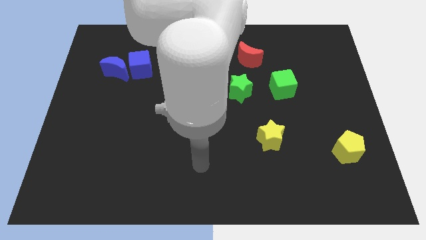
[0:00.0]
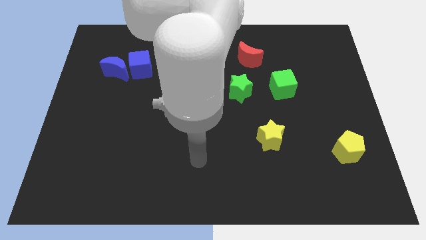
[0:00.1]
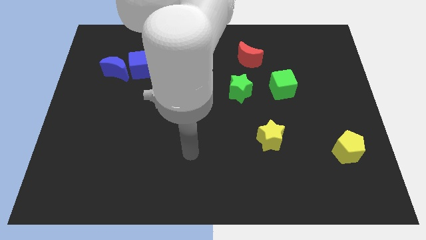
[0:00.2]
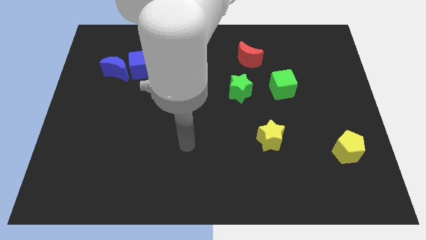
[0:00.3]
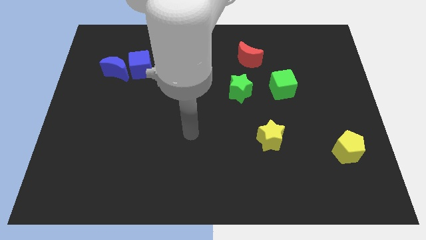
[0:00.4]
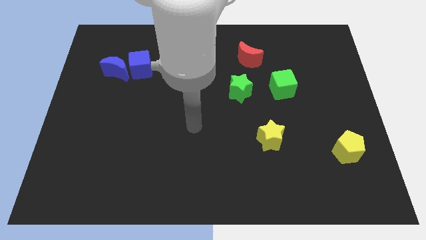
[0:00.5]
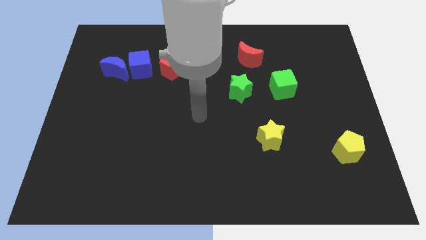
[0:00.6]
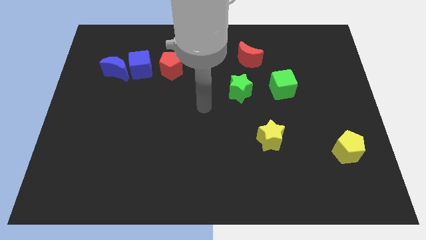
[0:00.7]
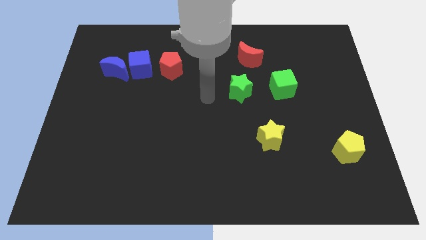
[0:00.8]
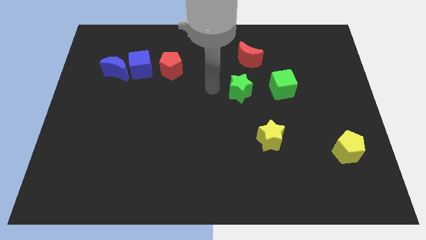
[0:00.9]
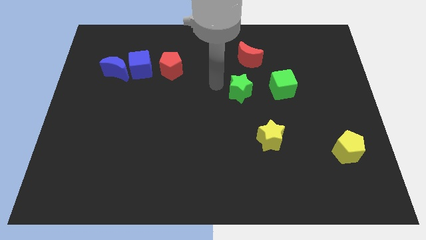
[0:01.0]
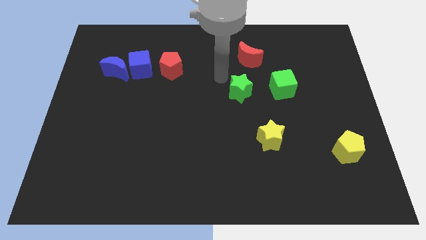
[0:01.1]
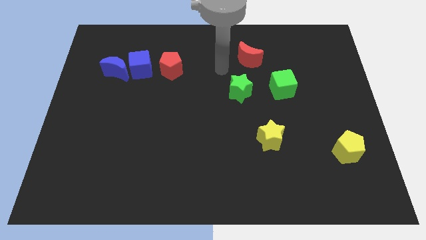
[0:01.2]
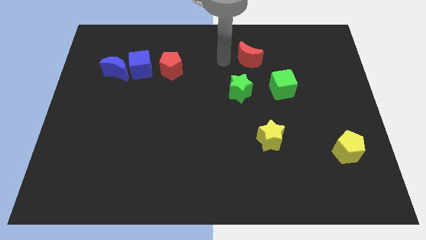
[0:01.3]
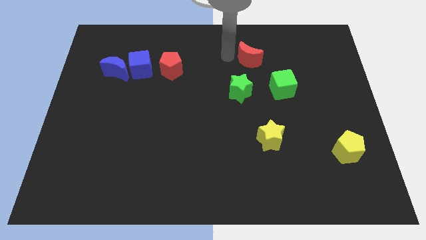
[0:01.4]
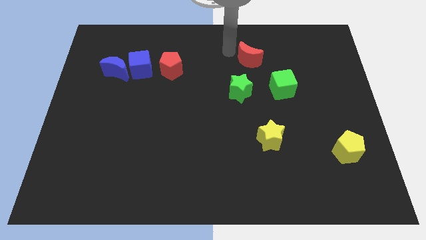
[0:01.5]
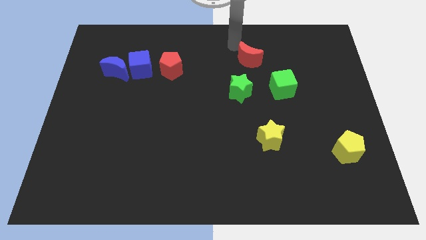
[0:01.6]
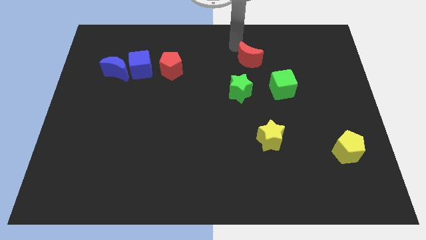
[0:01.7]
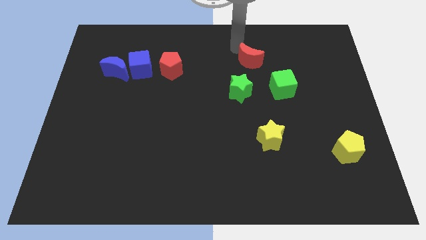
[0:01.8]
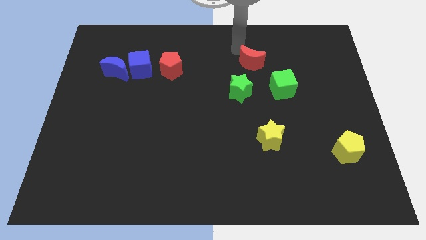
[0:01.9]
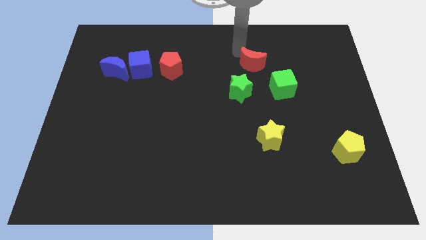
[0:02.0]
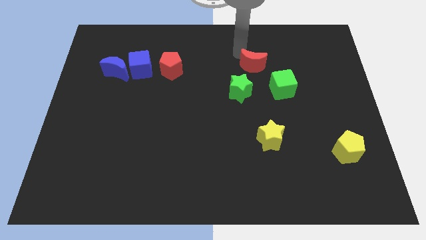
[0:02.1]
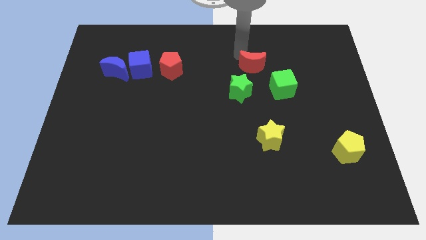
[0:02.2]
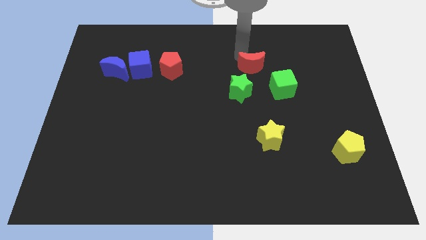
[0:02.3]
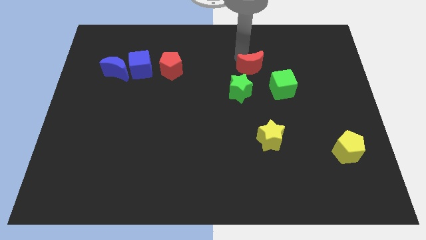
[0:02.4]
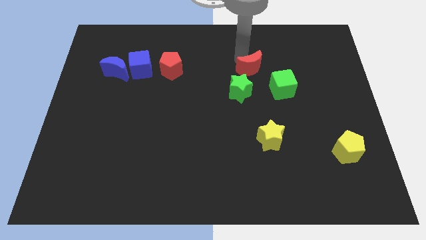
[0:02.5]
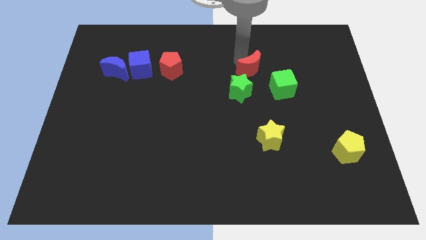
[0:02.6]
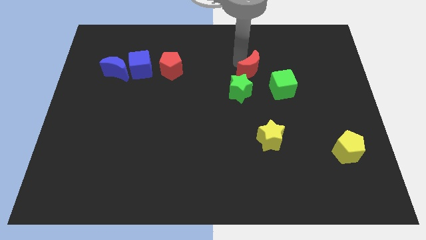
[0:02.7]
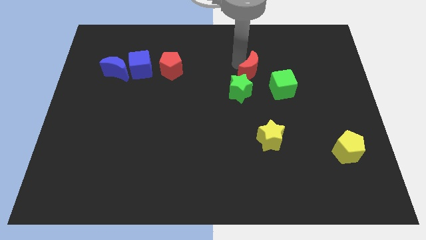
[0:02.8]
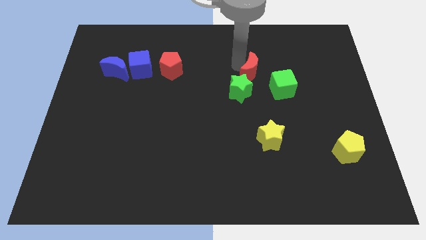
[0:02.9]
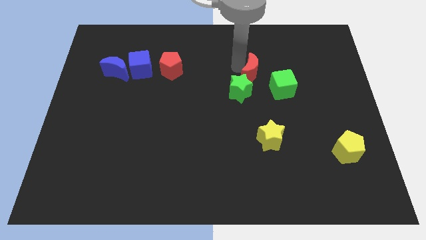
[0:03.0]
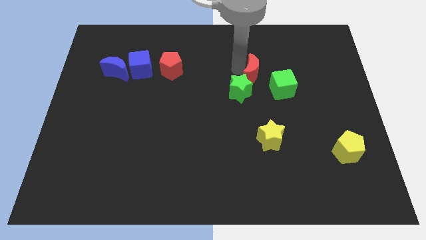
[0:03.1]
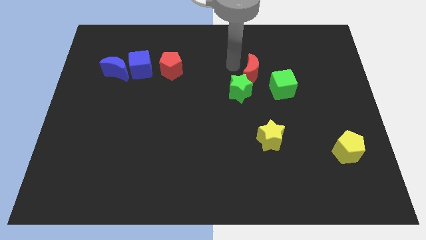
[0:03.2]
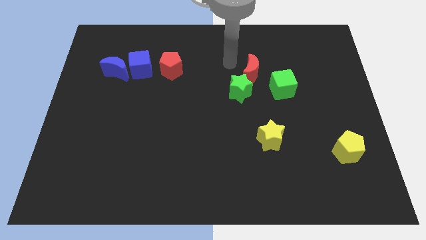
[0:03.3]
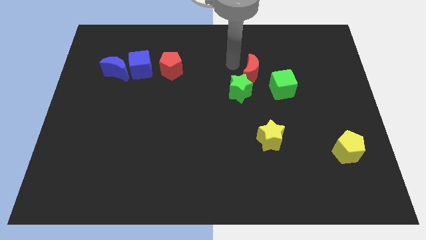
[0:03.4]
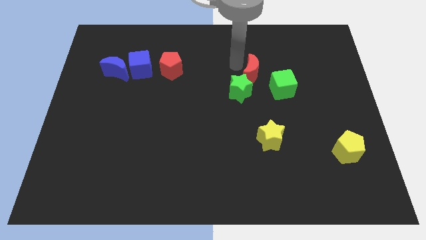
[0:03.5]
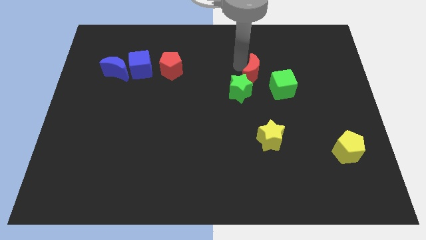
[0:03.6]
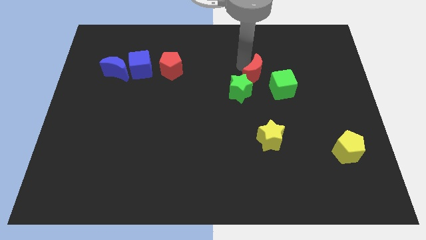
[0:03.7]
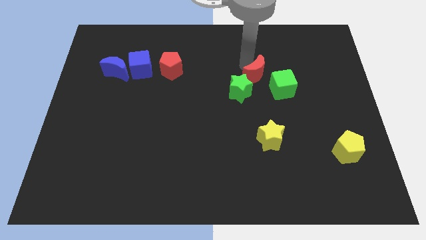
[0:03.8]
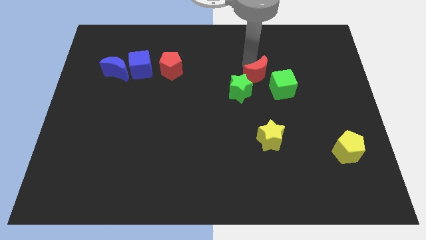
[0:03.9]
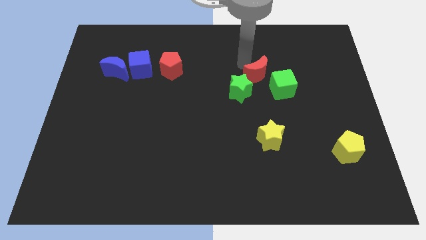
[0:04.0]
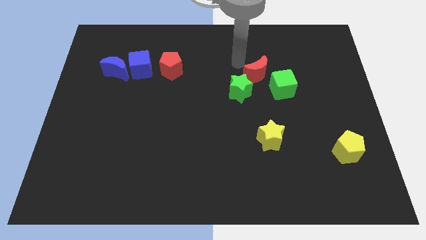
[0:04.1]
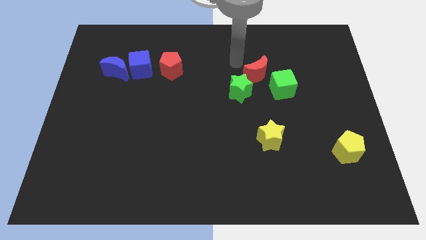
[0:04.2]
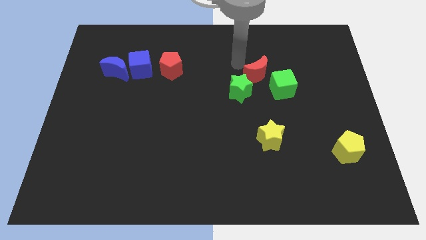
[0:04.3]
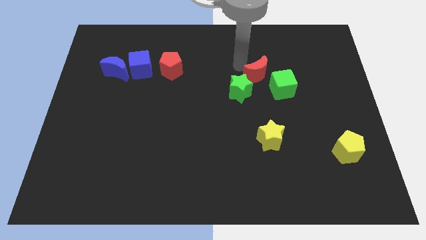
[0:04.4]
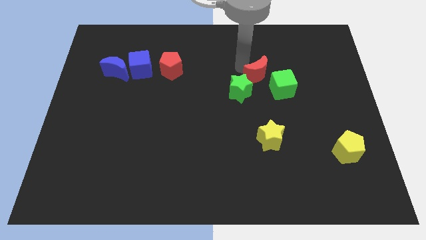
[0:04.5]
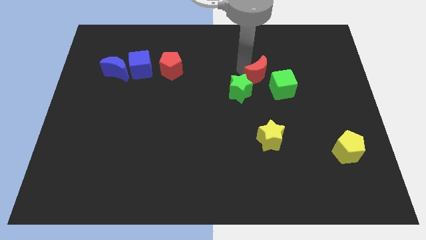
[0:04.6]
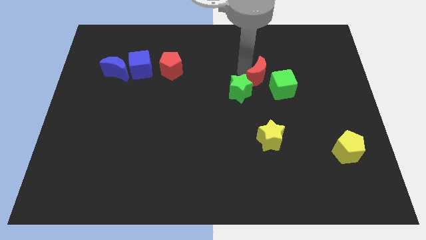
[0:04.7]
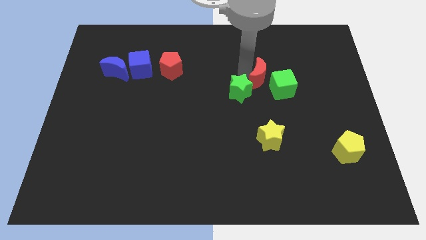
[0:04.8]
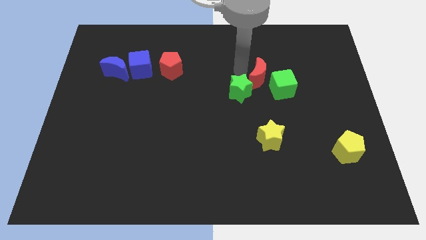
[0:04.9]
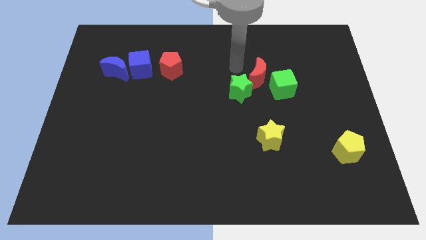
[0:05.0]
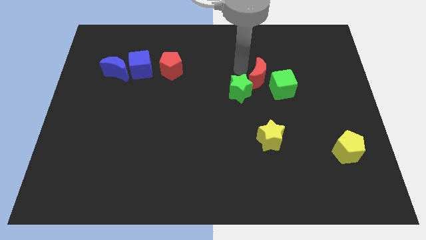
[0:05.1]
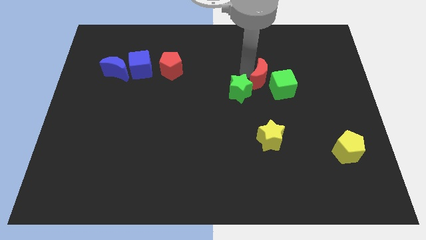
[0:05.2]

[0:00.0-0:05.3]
slide the red moon towards the green cube

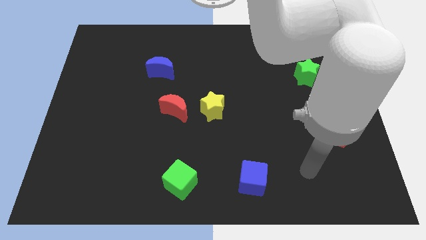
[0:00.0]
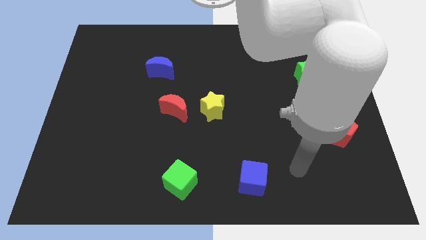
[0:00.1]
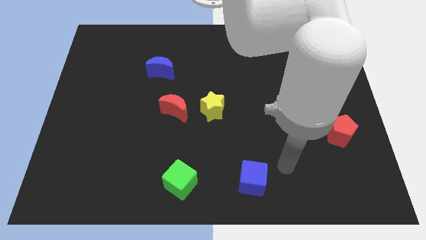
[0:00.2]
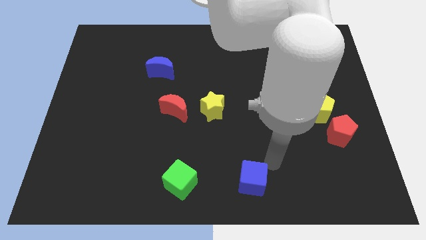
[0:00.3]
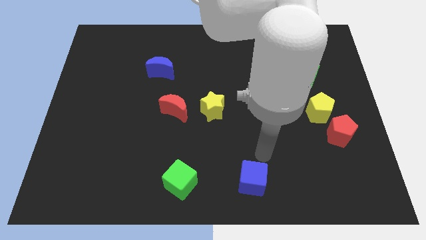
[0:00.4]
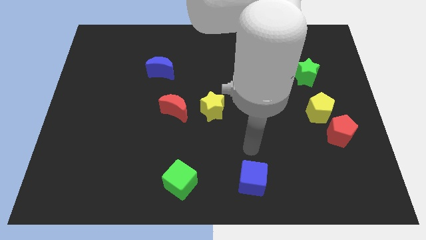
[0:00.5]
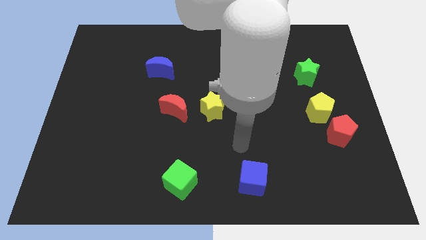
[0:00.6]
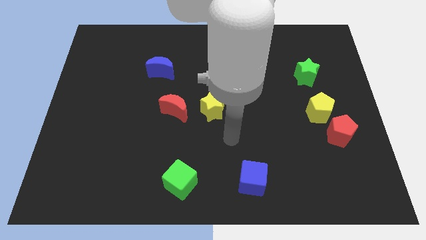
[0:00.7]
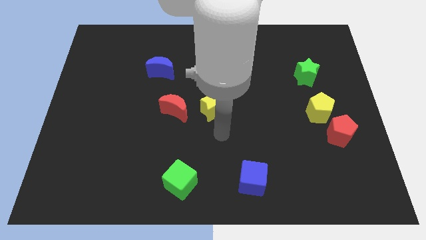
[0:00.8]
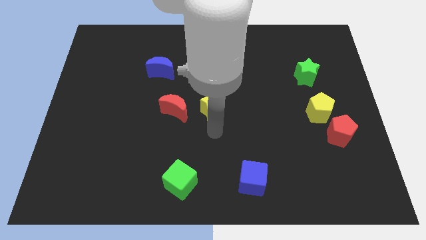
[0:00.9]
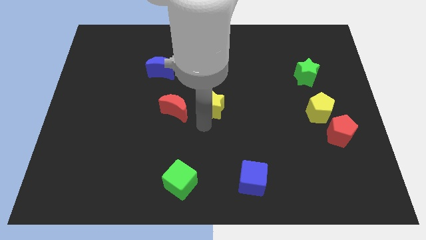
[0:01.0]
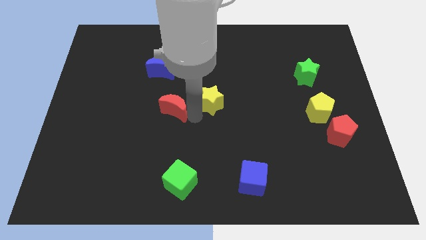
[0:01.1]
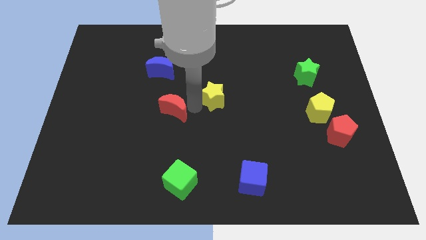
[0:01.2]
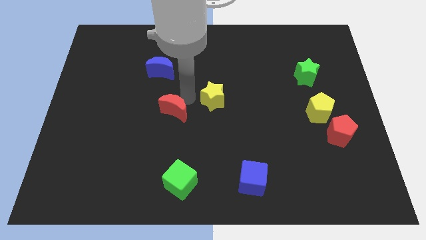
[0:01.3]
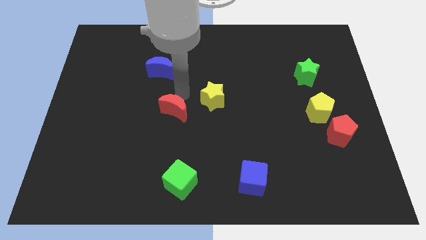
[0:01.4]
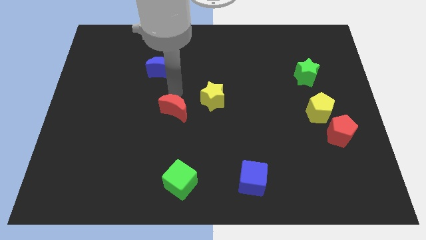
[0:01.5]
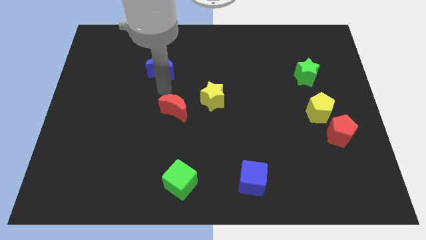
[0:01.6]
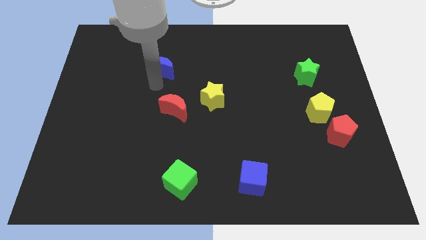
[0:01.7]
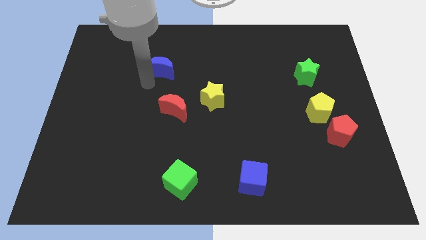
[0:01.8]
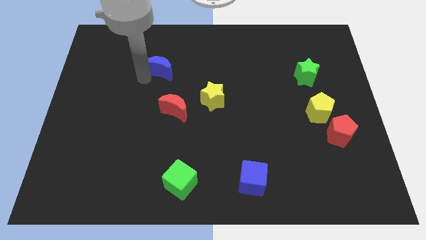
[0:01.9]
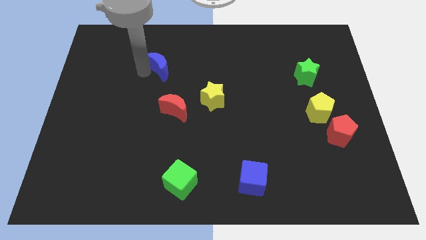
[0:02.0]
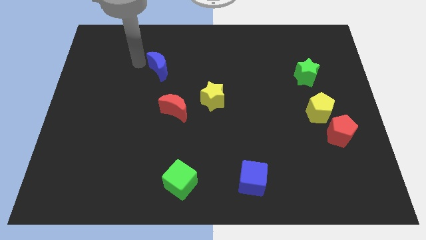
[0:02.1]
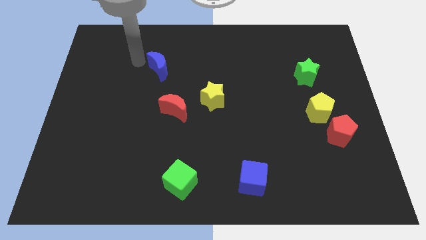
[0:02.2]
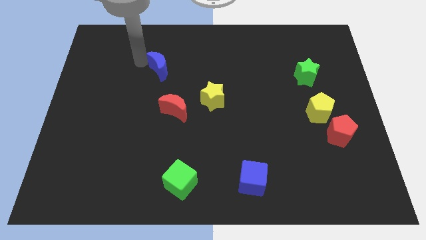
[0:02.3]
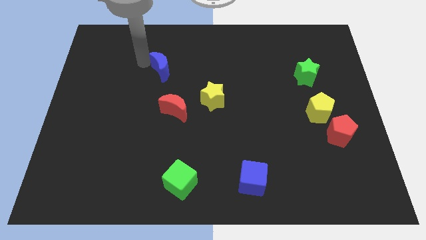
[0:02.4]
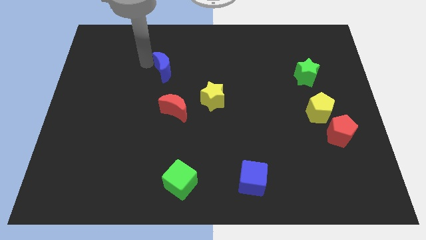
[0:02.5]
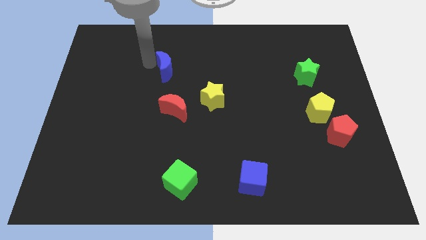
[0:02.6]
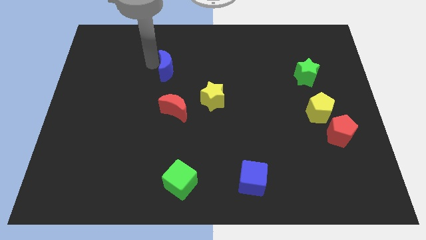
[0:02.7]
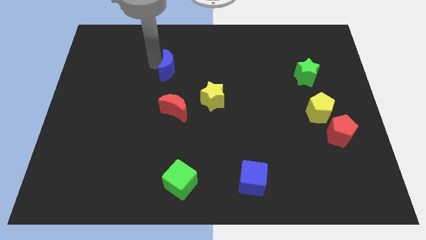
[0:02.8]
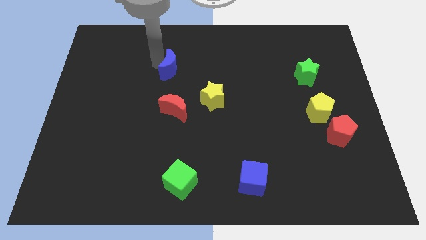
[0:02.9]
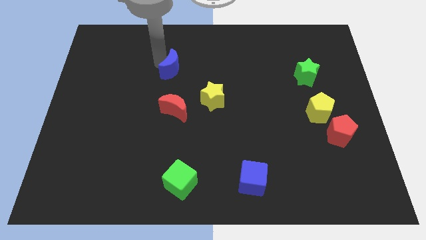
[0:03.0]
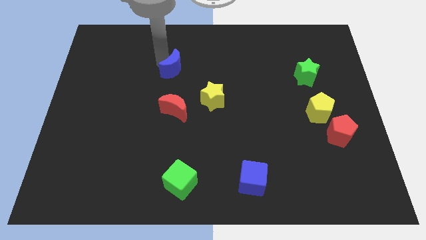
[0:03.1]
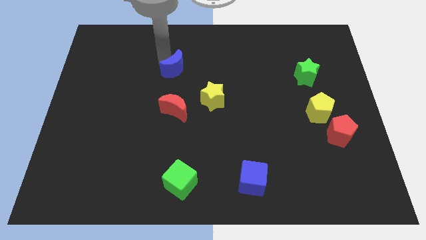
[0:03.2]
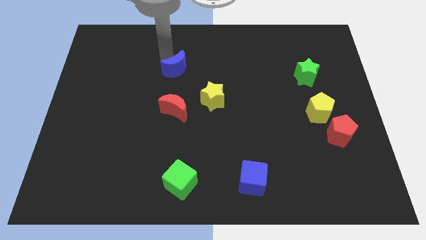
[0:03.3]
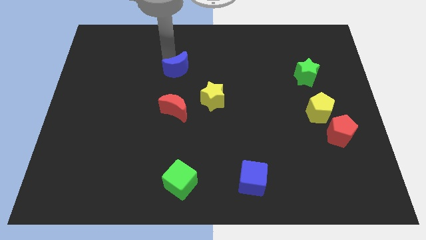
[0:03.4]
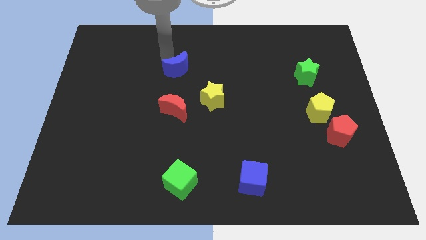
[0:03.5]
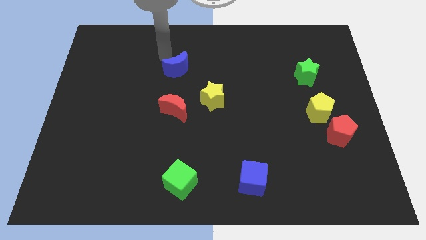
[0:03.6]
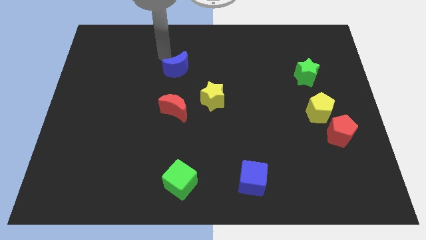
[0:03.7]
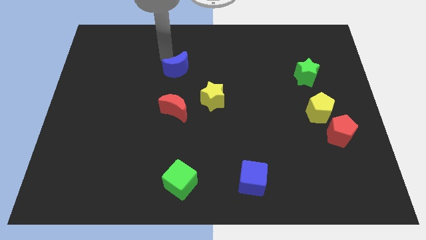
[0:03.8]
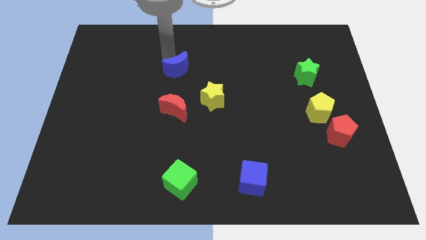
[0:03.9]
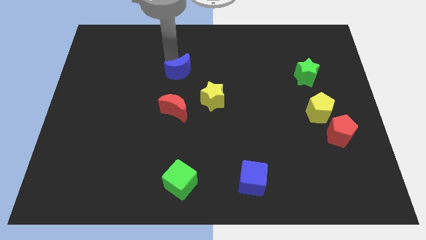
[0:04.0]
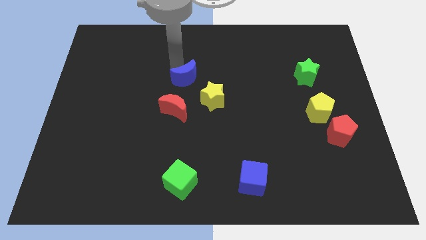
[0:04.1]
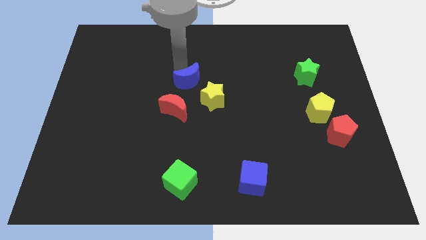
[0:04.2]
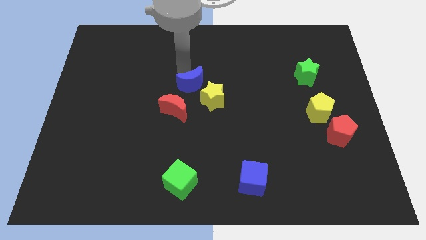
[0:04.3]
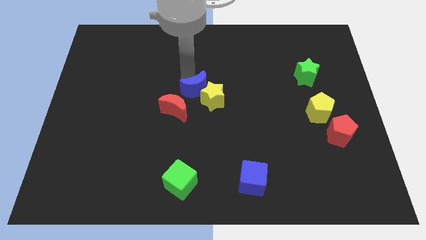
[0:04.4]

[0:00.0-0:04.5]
put the blue moon next to the yellow star
